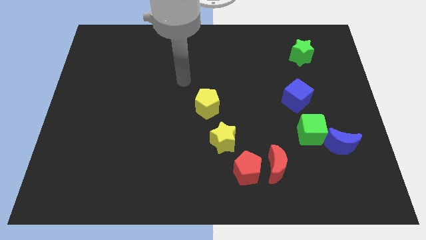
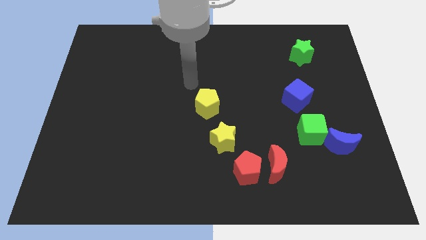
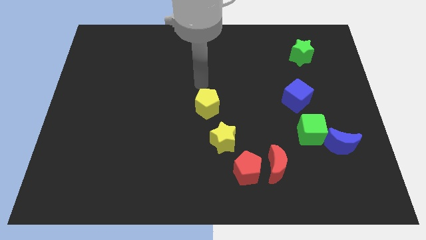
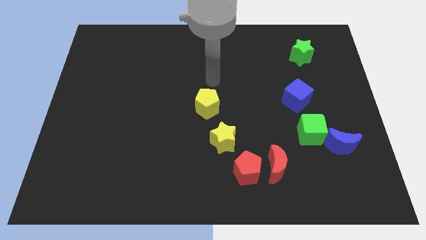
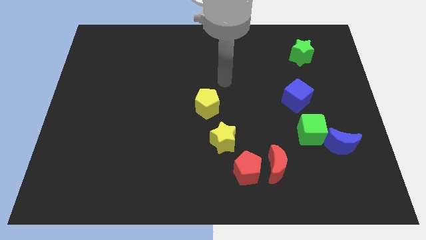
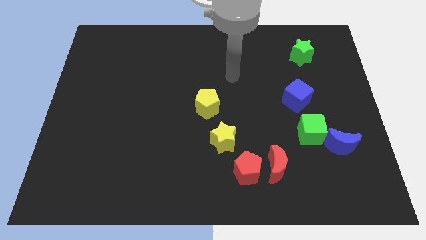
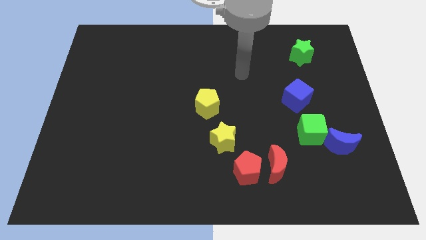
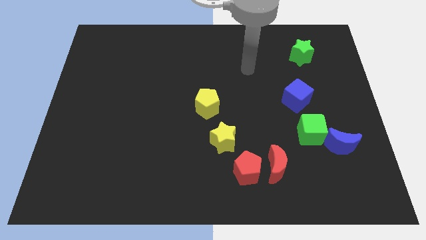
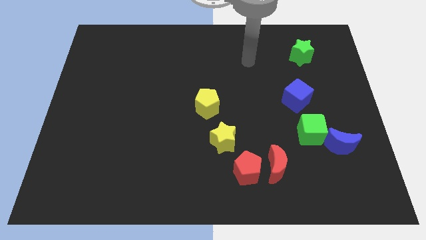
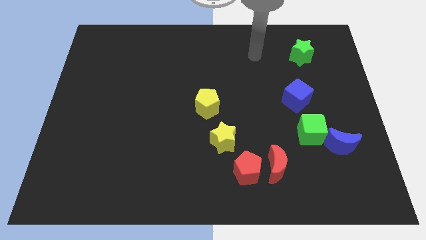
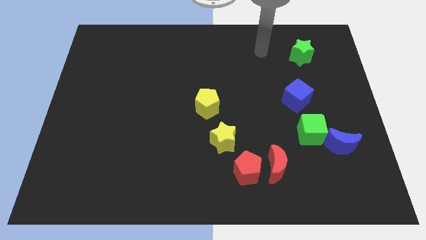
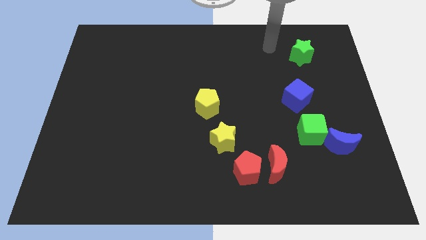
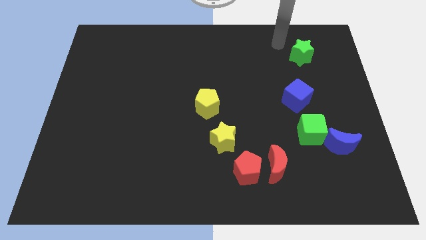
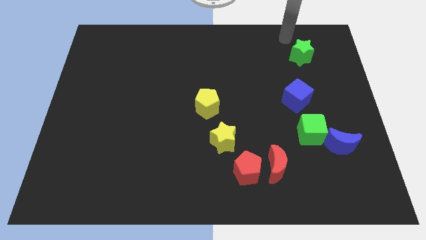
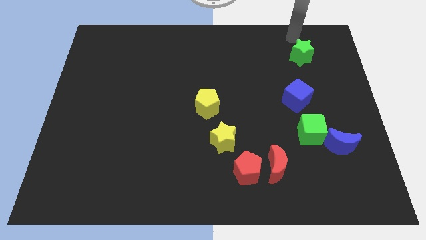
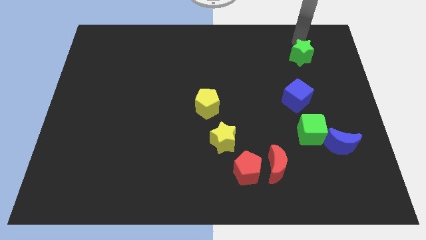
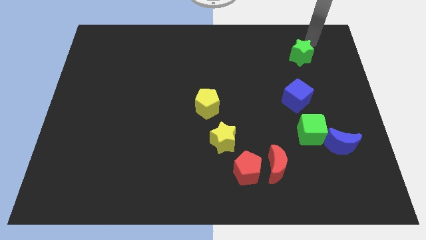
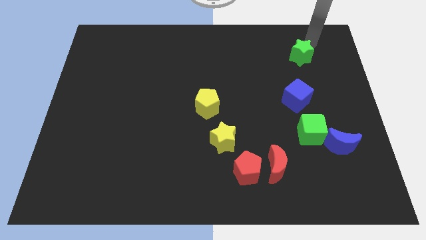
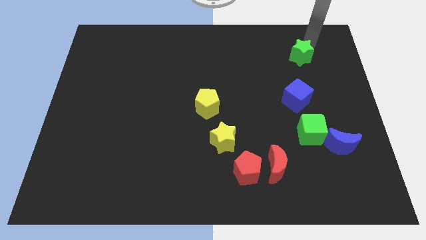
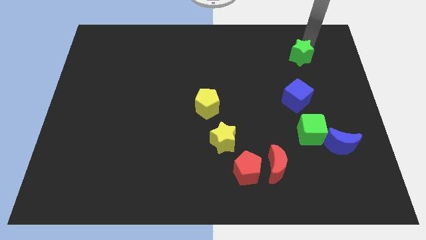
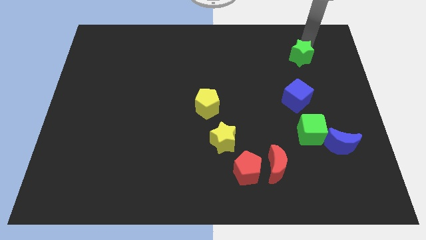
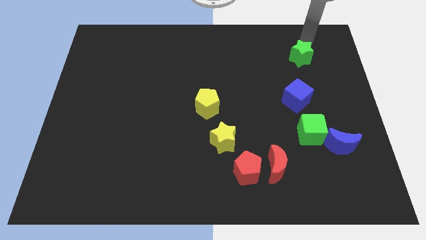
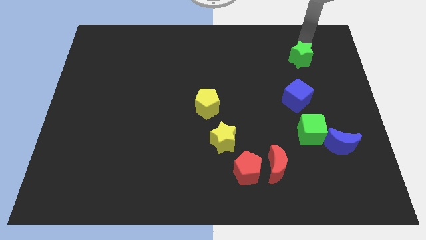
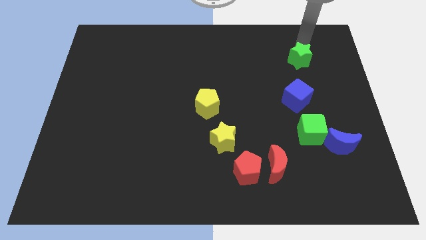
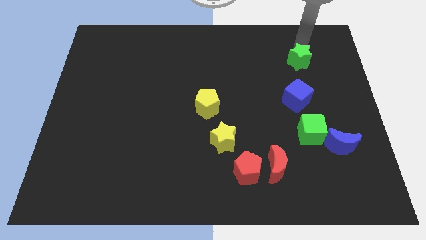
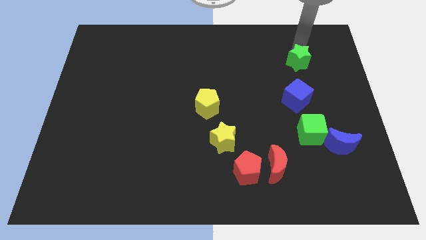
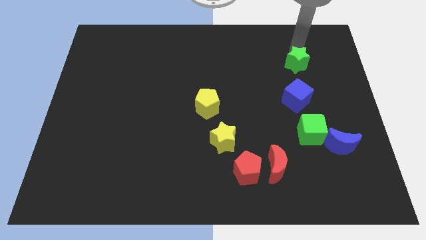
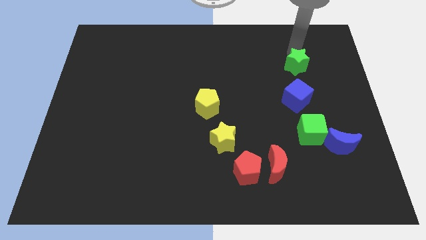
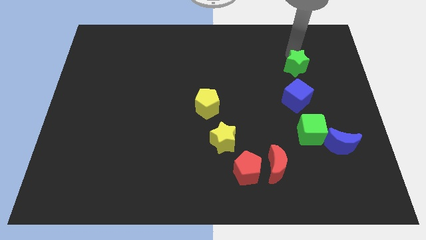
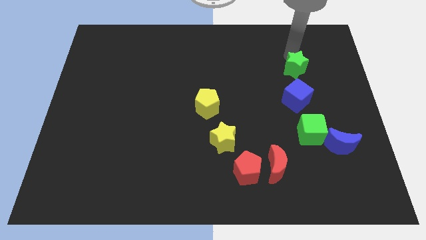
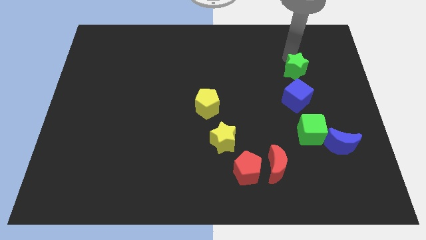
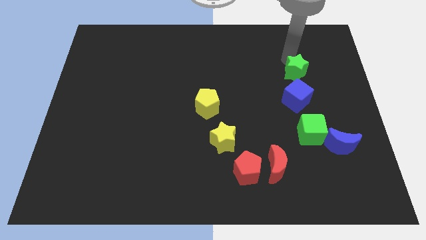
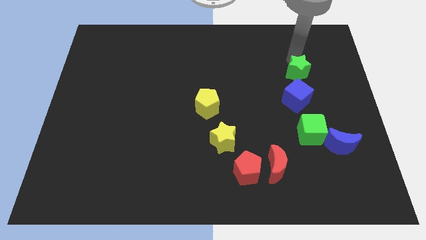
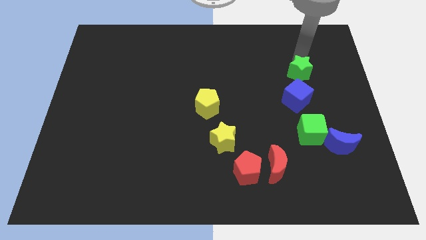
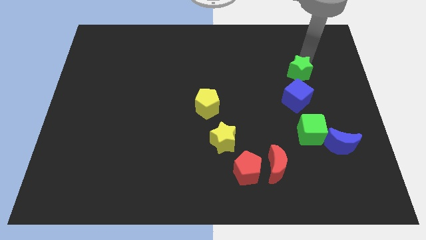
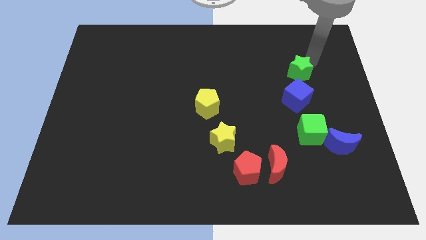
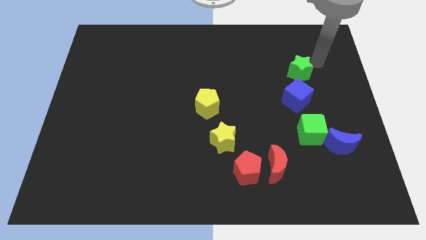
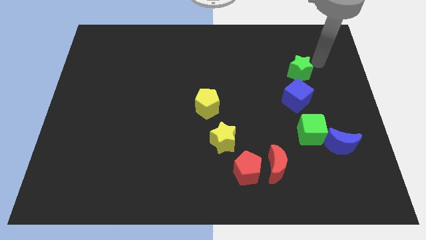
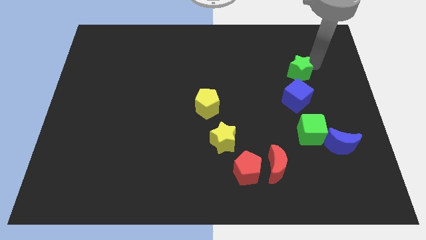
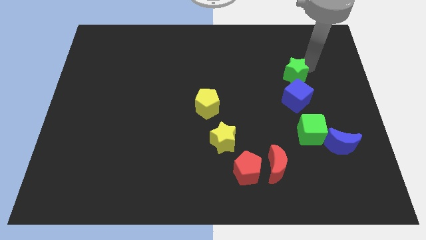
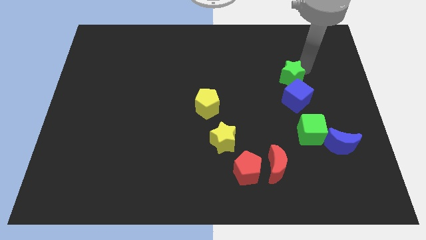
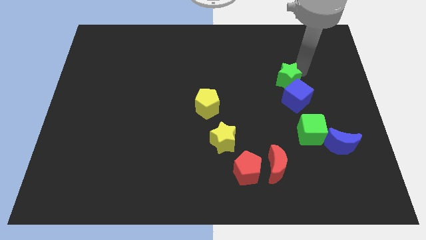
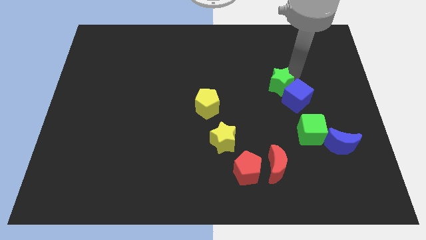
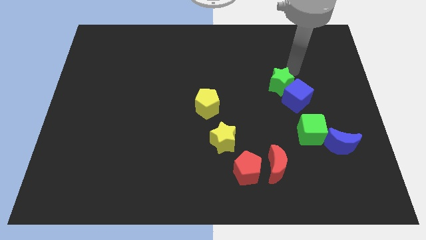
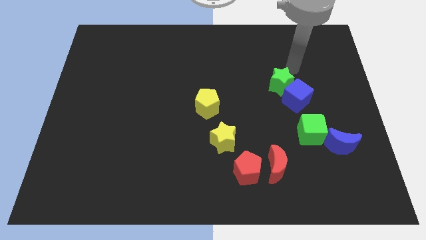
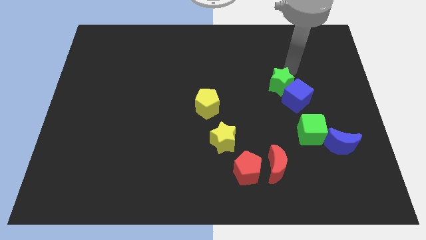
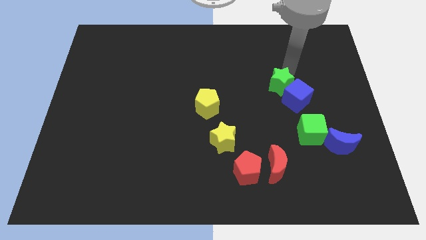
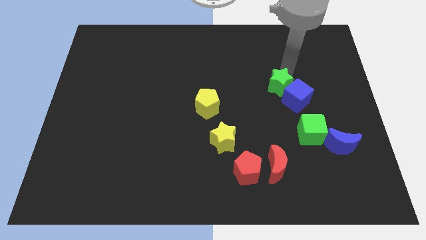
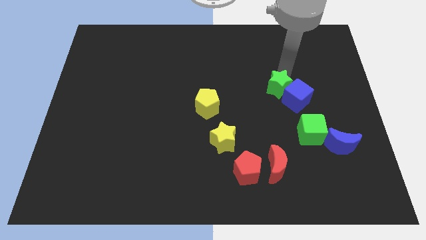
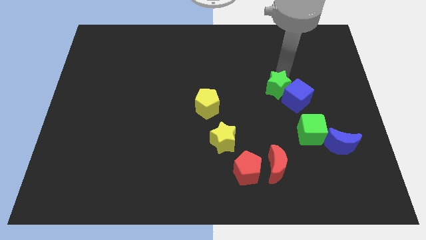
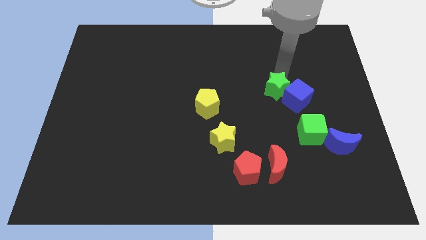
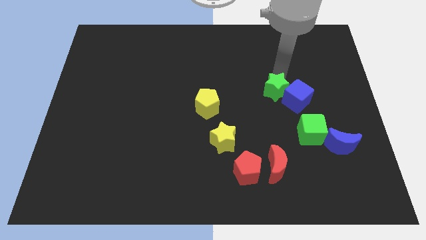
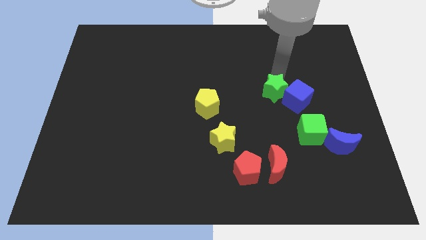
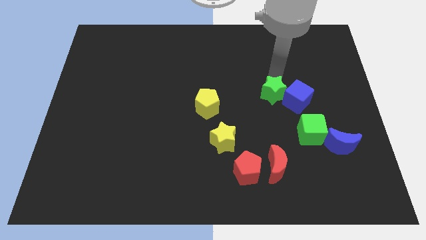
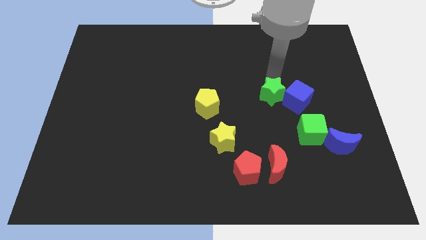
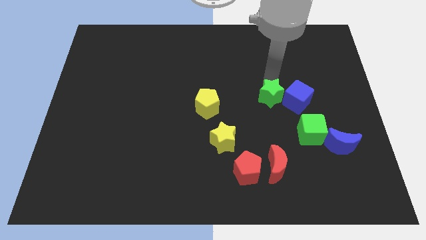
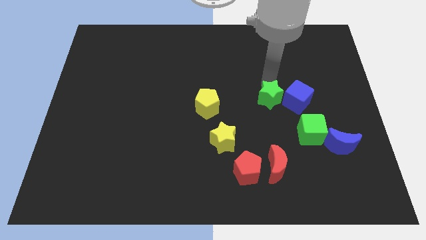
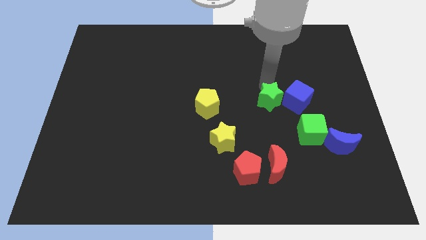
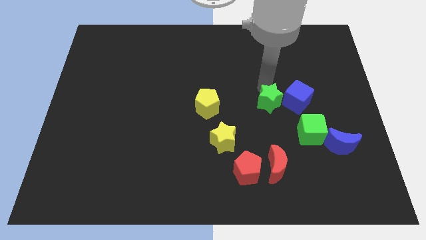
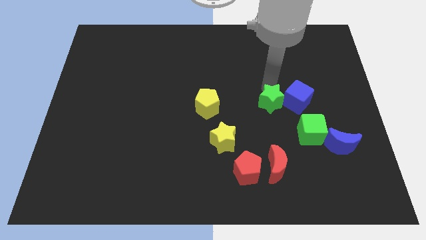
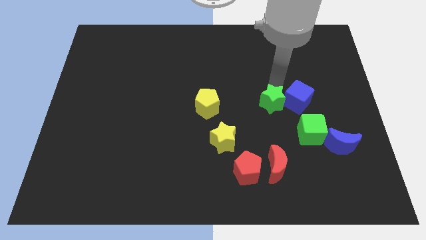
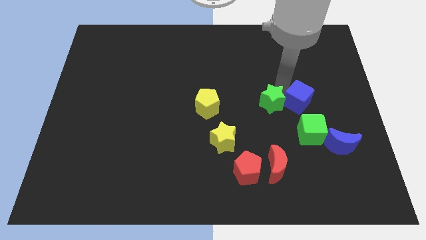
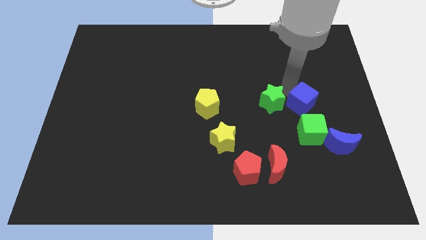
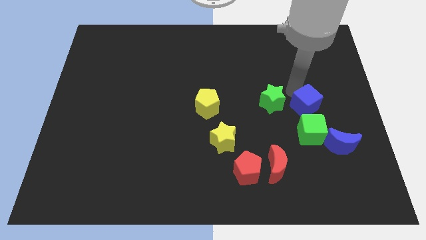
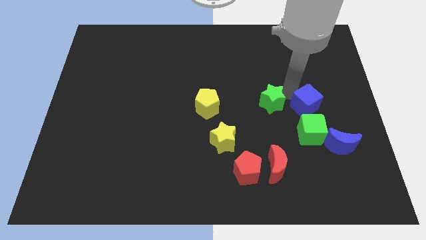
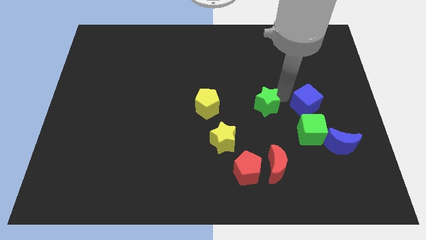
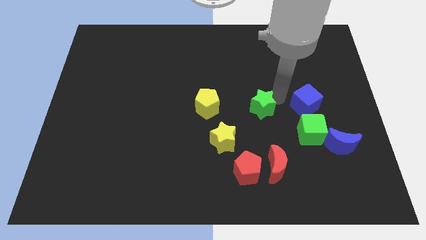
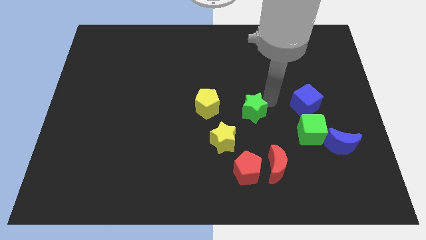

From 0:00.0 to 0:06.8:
push the green star to the top side of the red pentagon

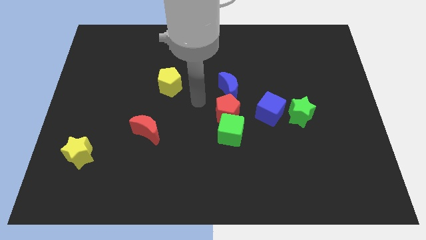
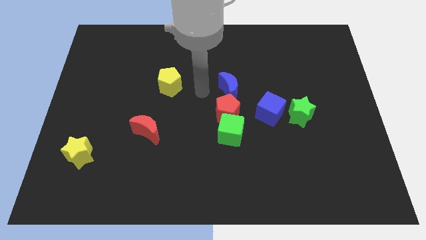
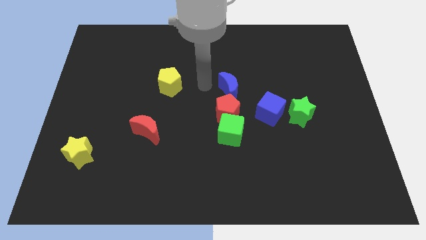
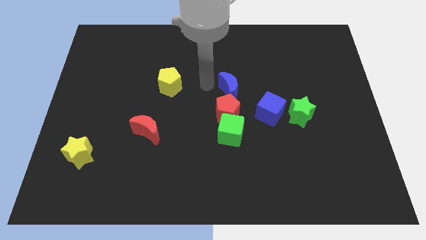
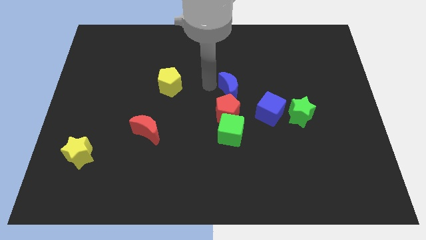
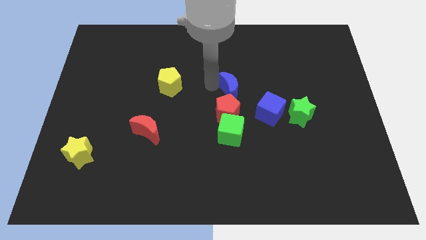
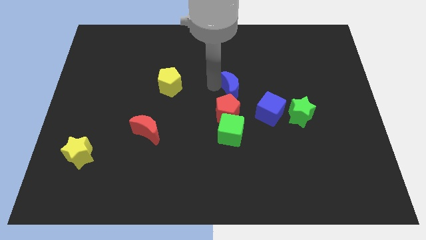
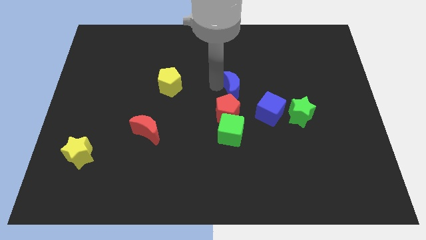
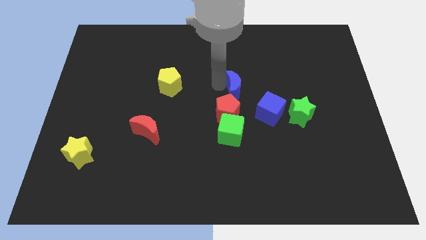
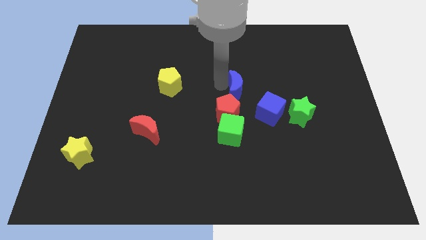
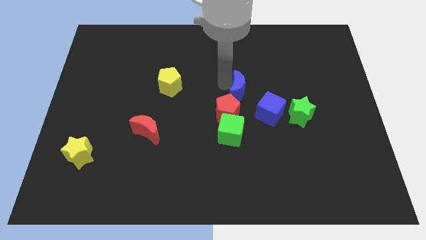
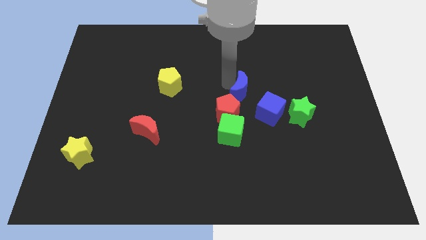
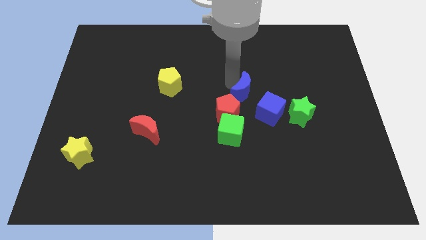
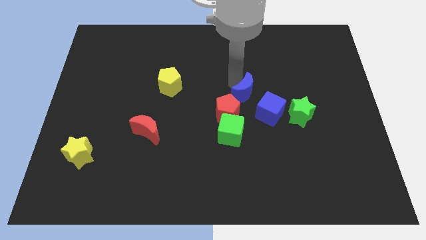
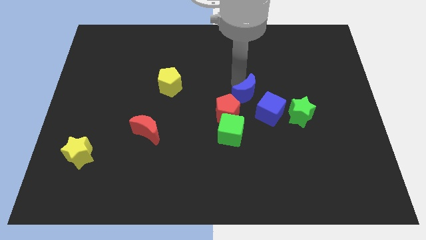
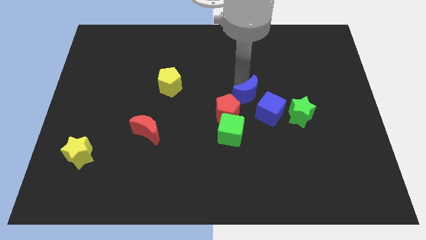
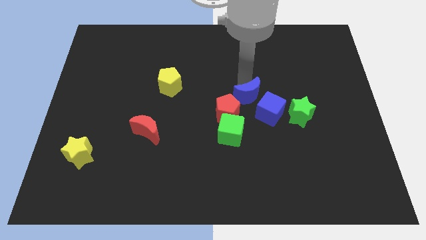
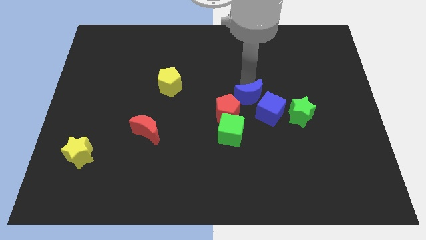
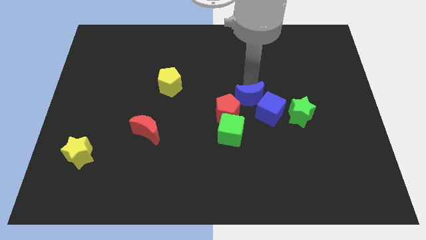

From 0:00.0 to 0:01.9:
put the blue moon left of the green star
